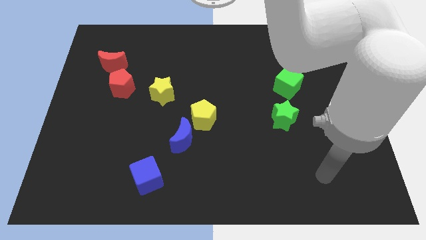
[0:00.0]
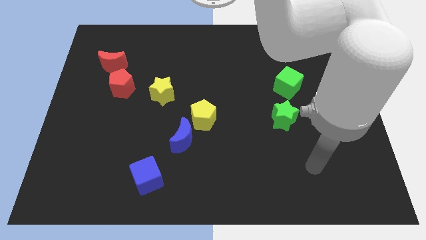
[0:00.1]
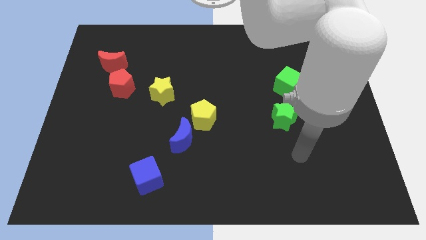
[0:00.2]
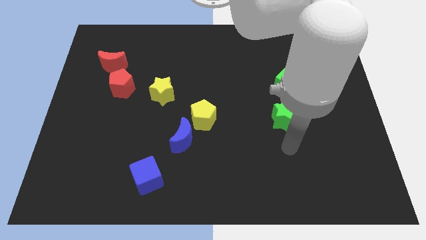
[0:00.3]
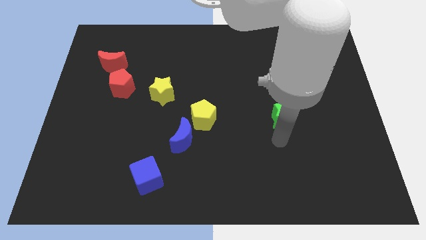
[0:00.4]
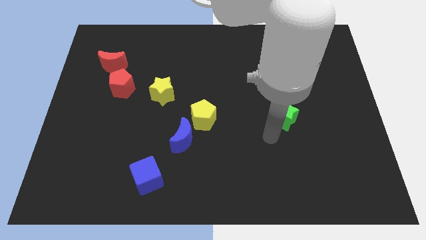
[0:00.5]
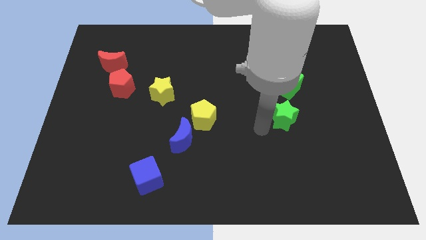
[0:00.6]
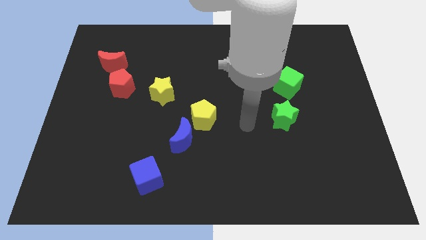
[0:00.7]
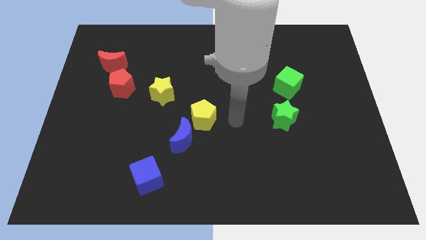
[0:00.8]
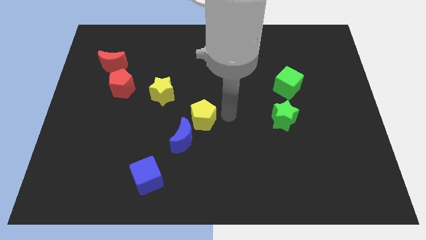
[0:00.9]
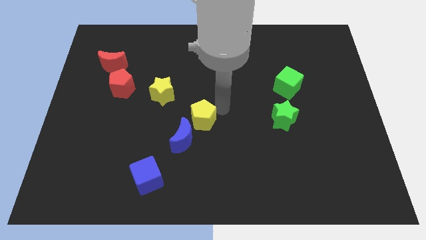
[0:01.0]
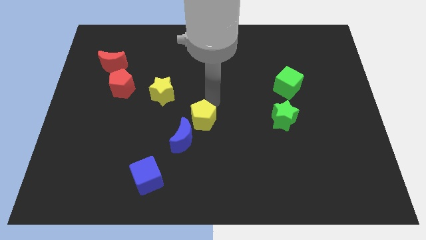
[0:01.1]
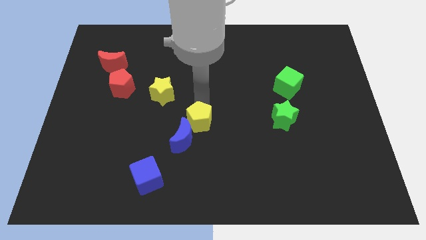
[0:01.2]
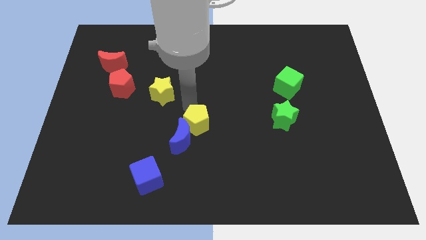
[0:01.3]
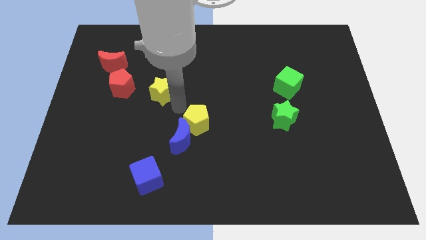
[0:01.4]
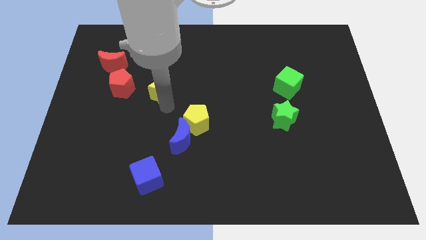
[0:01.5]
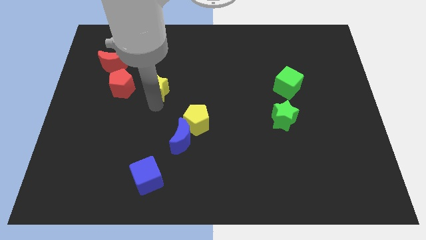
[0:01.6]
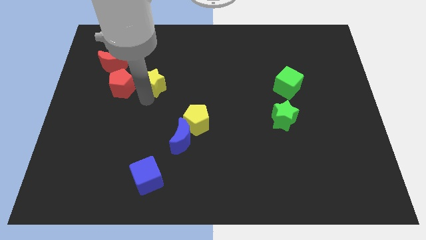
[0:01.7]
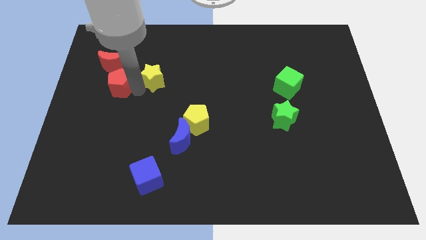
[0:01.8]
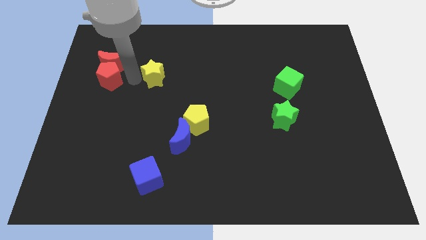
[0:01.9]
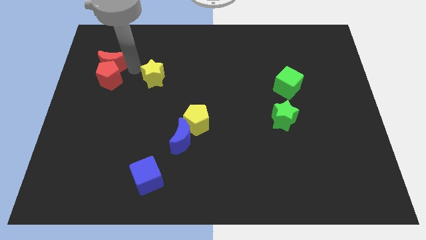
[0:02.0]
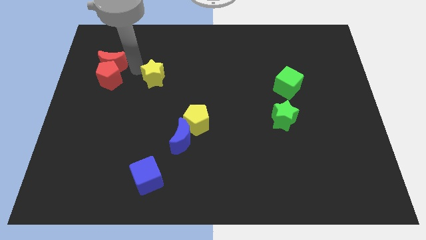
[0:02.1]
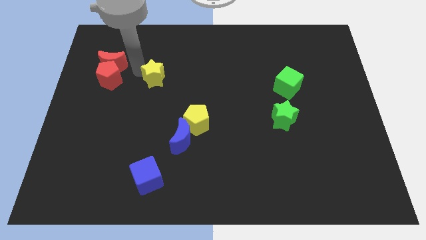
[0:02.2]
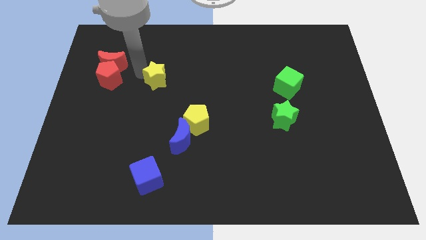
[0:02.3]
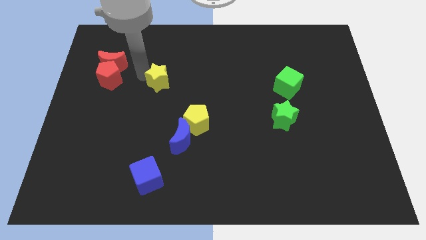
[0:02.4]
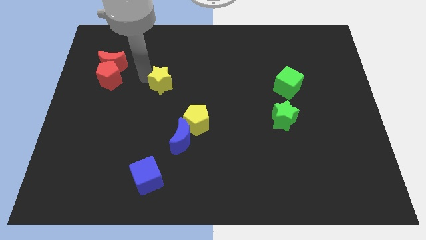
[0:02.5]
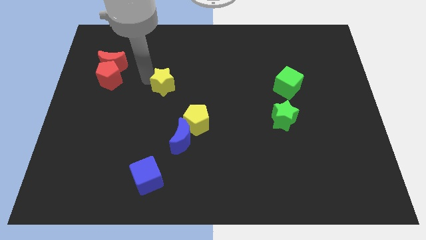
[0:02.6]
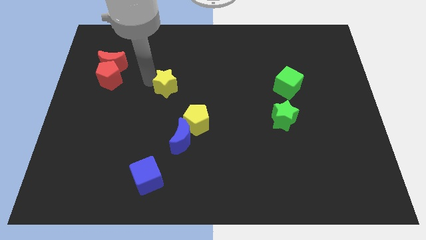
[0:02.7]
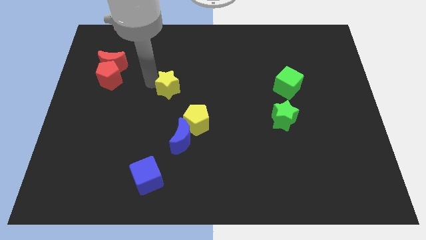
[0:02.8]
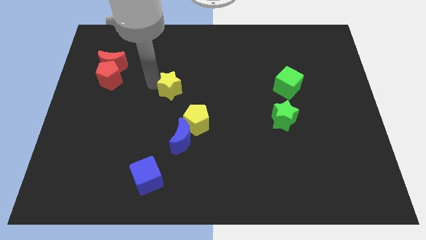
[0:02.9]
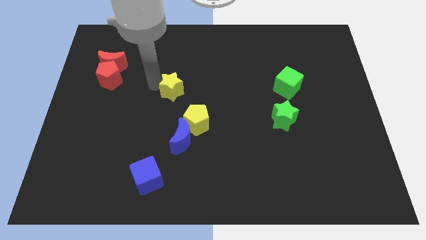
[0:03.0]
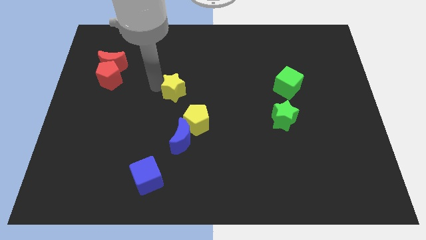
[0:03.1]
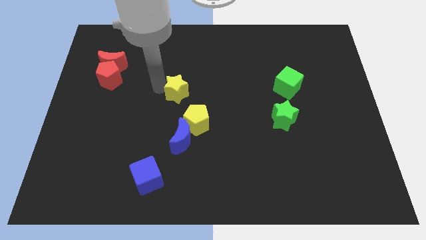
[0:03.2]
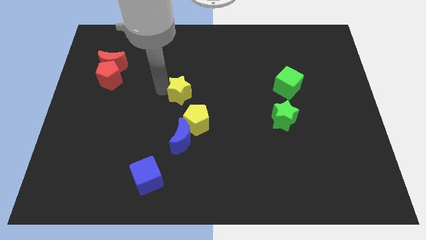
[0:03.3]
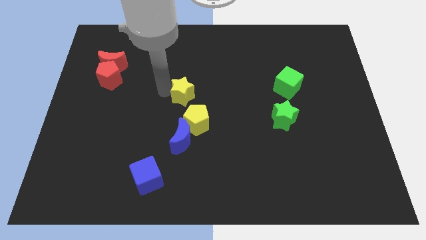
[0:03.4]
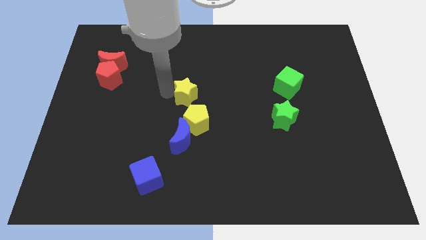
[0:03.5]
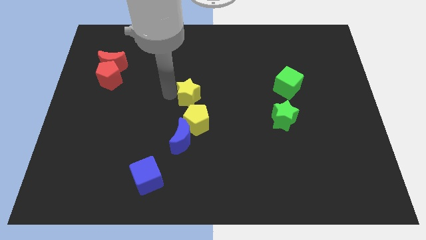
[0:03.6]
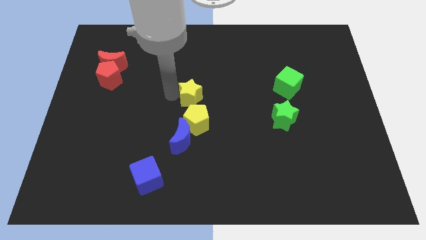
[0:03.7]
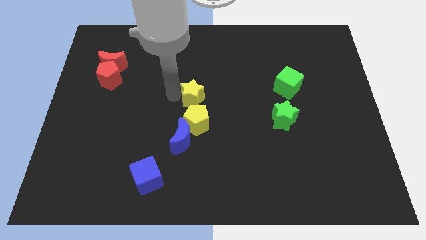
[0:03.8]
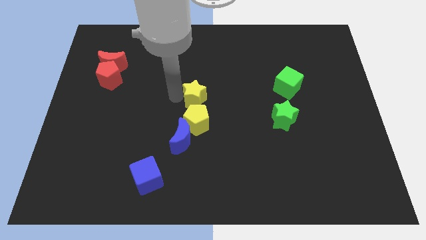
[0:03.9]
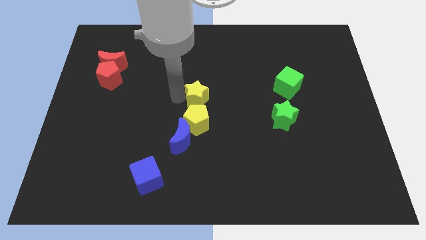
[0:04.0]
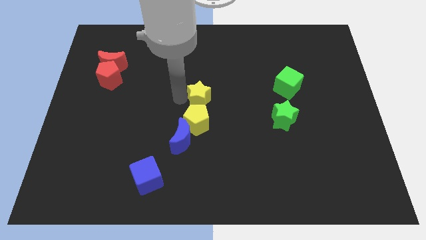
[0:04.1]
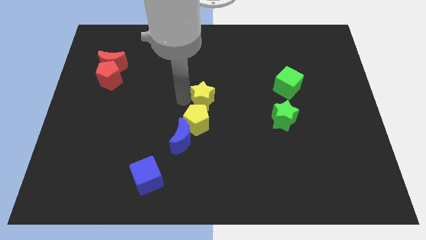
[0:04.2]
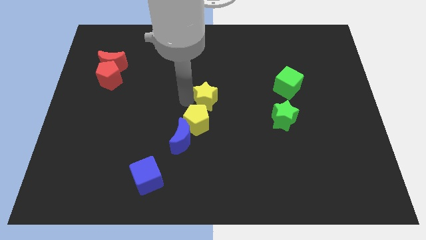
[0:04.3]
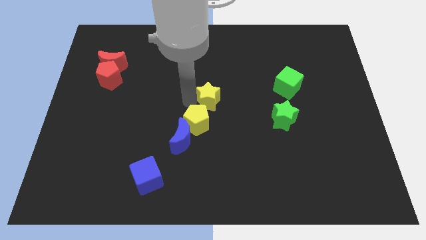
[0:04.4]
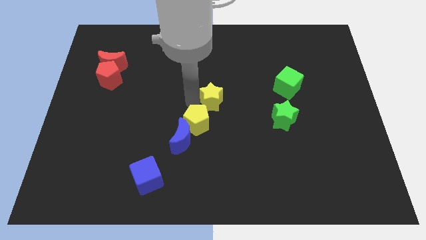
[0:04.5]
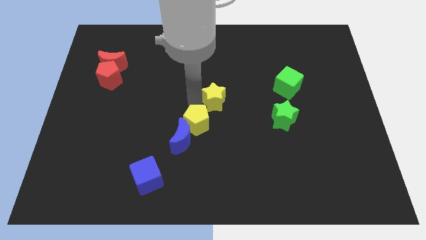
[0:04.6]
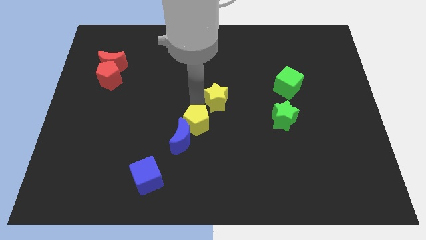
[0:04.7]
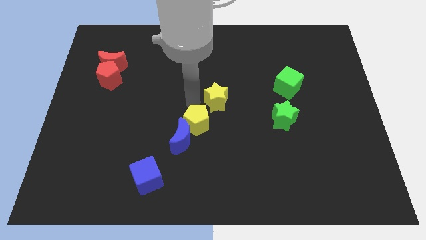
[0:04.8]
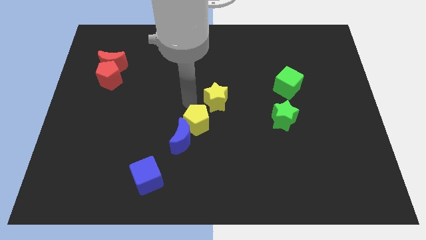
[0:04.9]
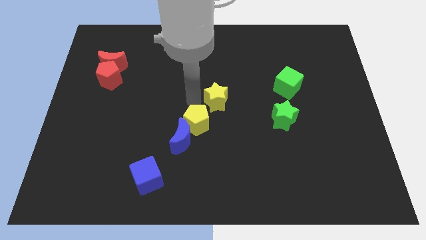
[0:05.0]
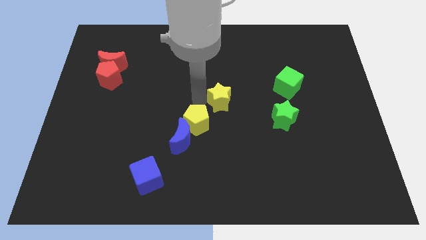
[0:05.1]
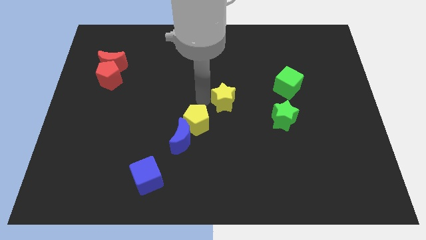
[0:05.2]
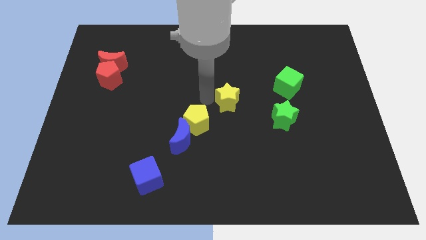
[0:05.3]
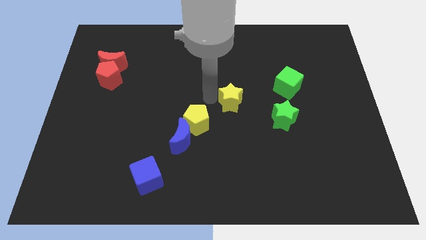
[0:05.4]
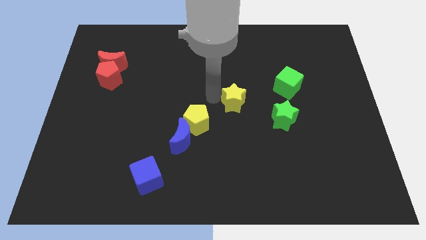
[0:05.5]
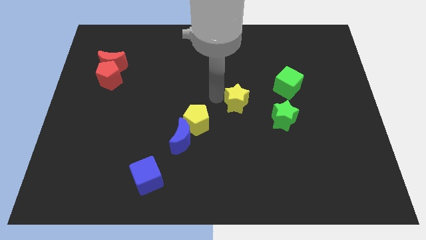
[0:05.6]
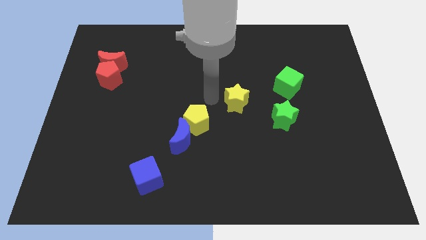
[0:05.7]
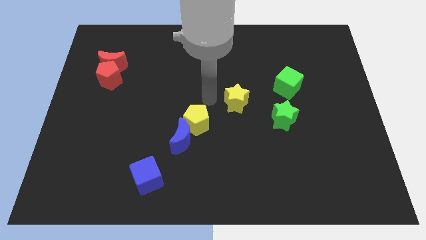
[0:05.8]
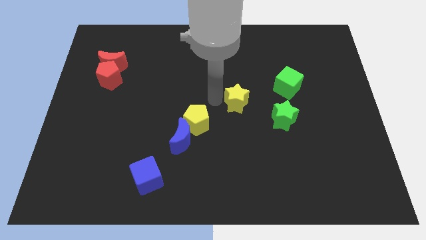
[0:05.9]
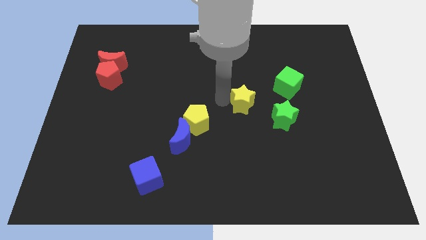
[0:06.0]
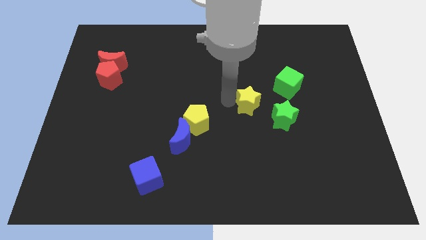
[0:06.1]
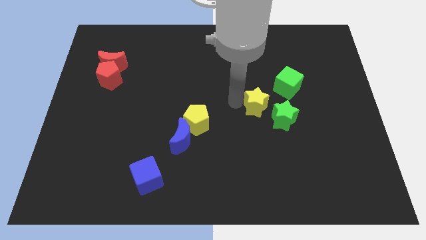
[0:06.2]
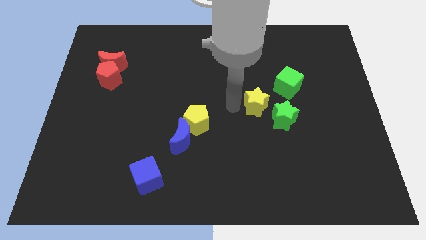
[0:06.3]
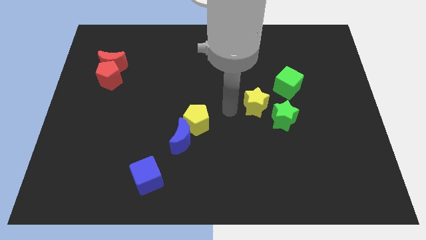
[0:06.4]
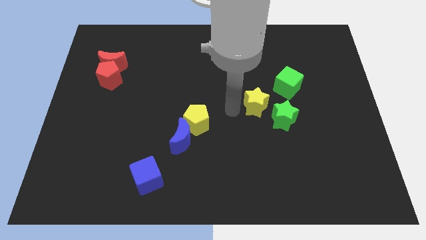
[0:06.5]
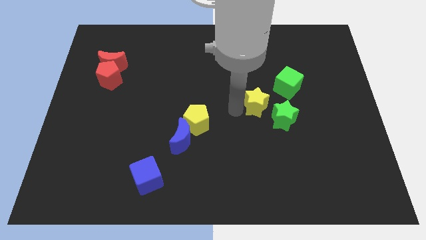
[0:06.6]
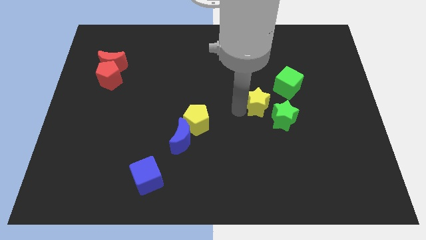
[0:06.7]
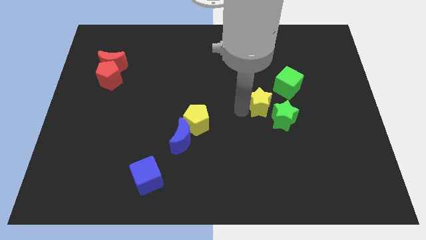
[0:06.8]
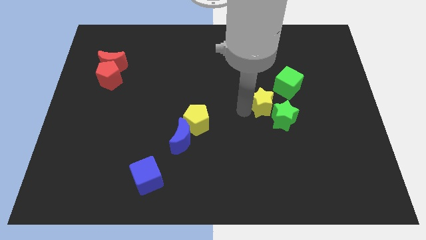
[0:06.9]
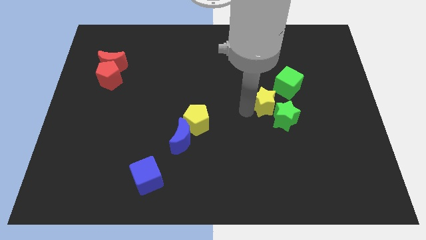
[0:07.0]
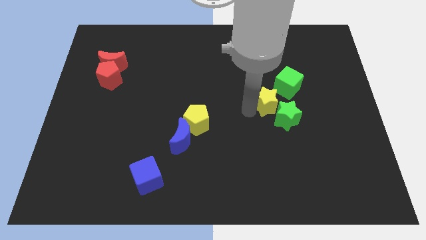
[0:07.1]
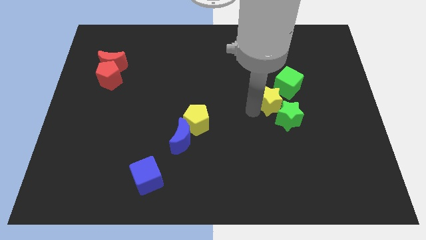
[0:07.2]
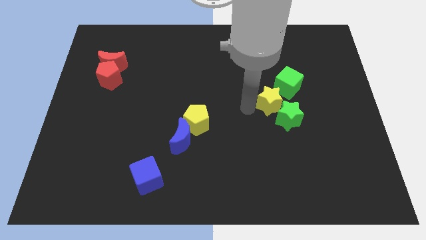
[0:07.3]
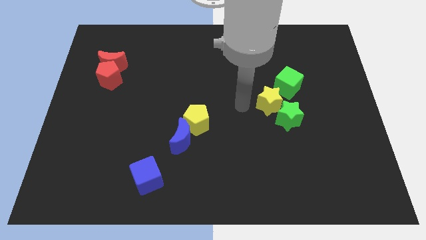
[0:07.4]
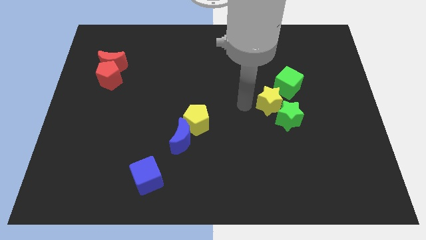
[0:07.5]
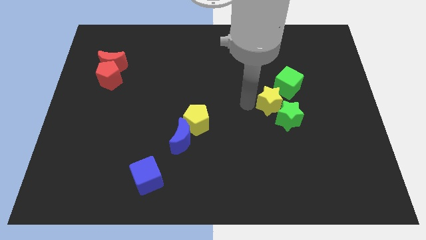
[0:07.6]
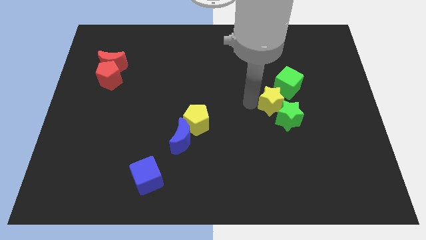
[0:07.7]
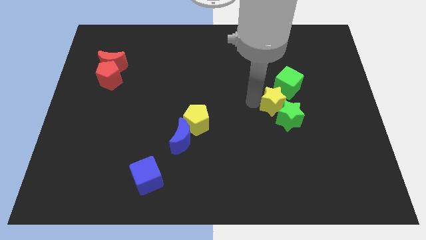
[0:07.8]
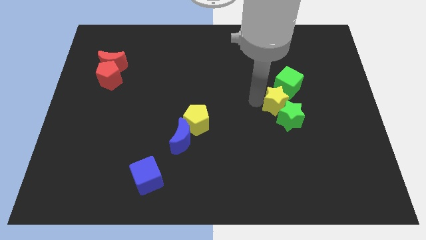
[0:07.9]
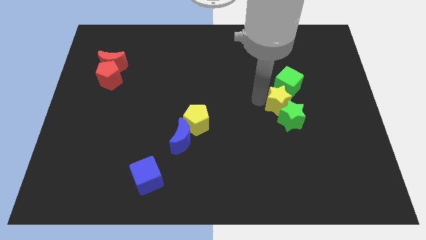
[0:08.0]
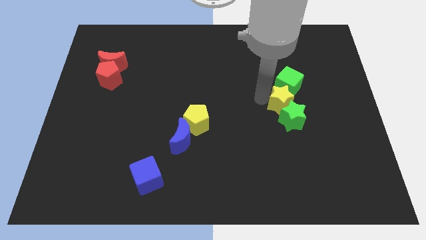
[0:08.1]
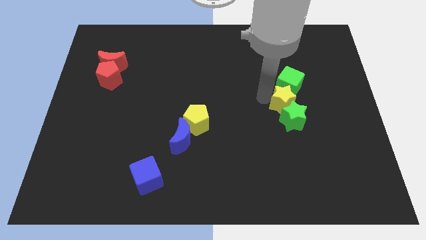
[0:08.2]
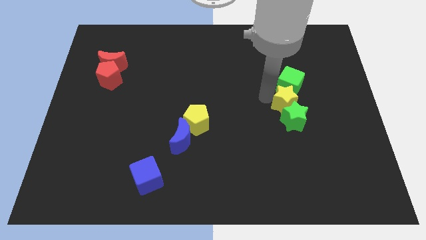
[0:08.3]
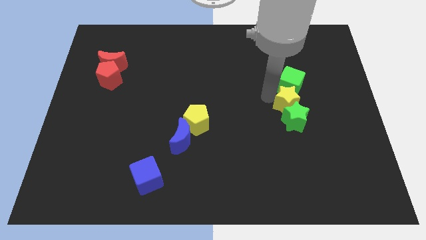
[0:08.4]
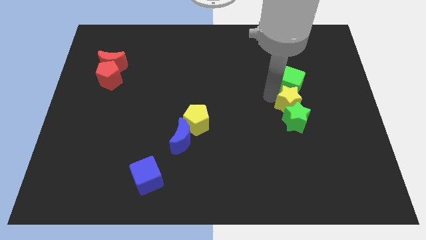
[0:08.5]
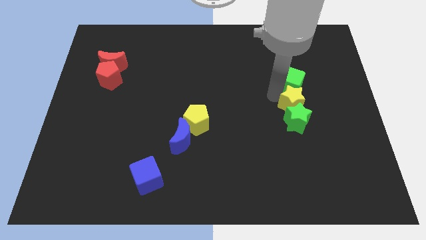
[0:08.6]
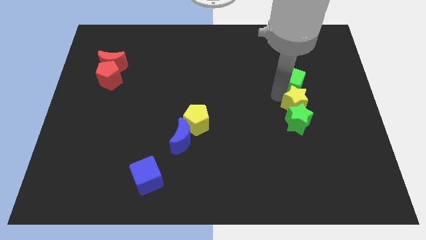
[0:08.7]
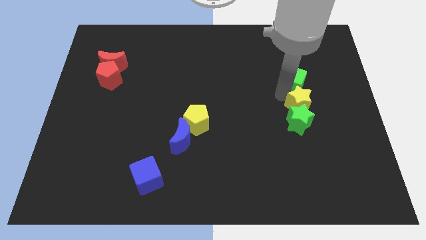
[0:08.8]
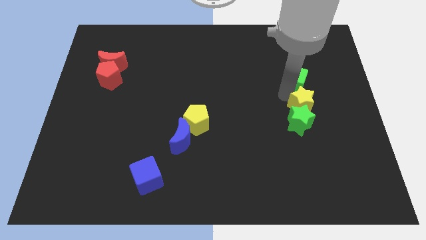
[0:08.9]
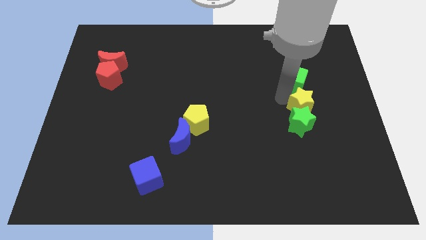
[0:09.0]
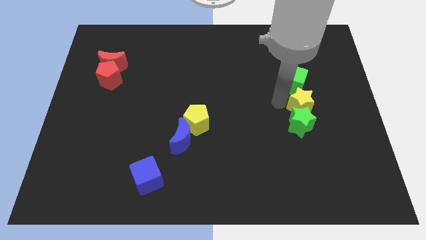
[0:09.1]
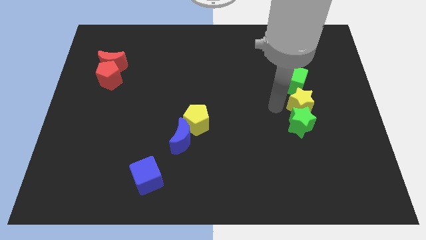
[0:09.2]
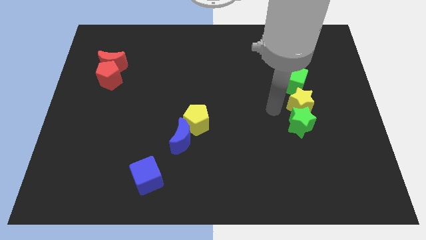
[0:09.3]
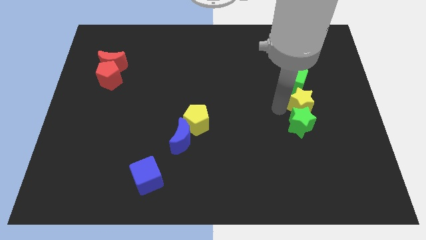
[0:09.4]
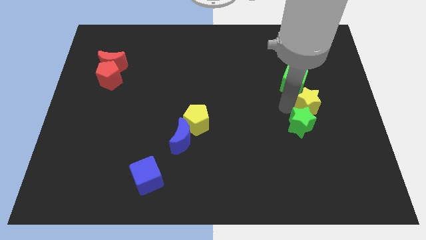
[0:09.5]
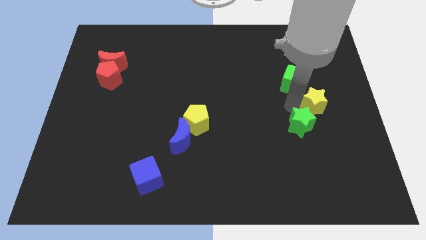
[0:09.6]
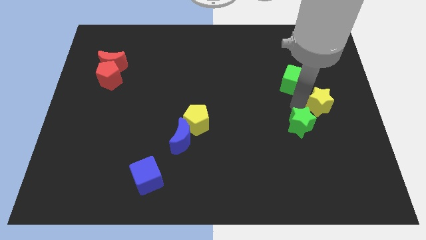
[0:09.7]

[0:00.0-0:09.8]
put the yellow star to the right side of the board
